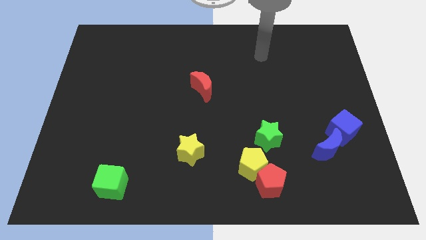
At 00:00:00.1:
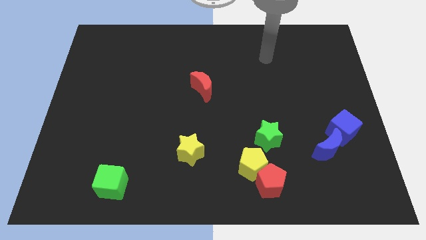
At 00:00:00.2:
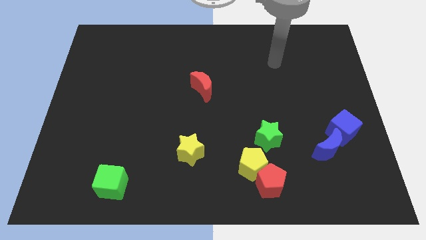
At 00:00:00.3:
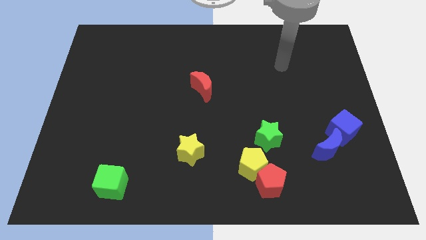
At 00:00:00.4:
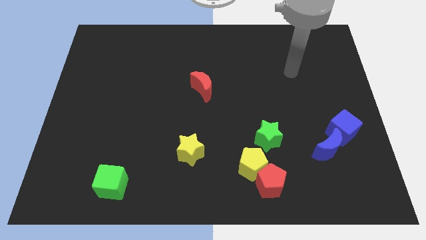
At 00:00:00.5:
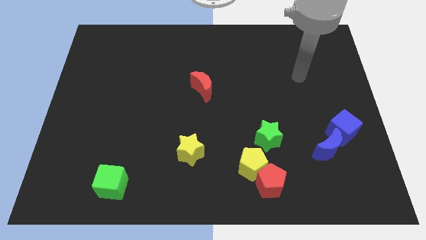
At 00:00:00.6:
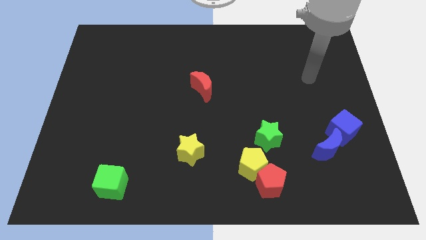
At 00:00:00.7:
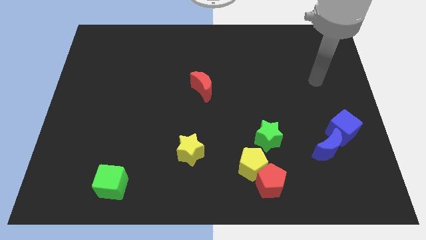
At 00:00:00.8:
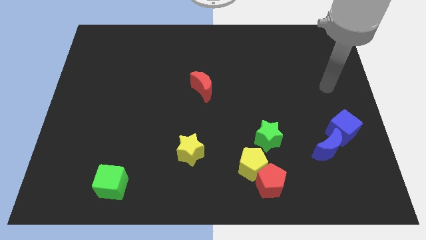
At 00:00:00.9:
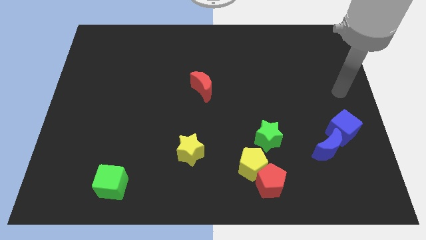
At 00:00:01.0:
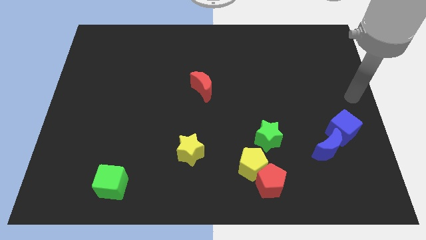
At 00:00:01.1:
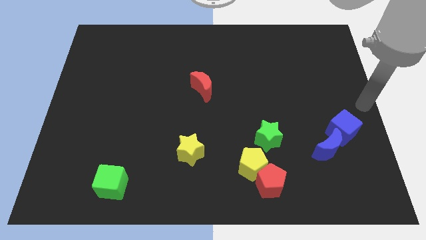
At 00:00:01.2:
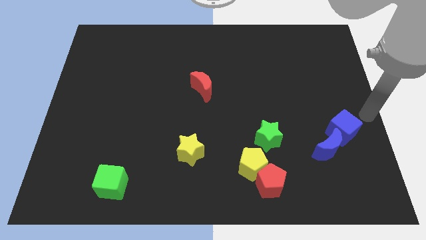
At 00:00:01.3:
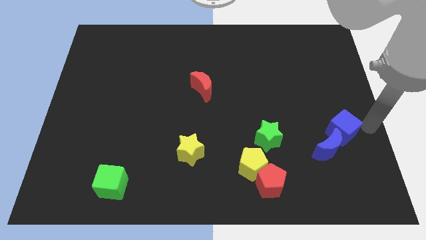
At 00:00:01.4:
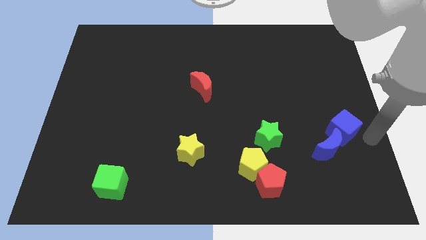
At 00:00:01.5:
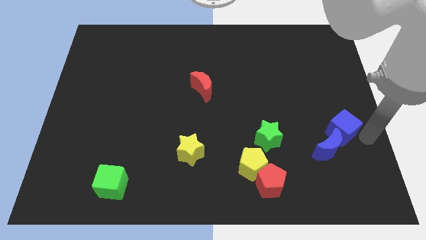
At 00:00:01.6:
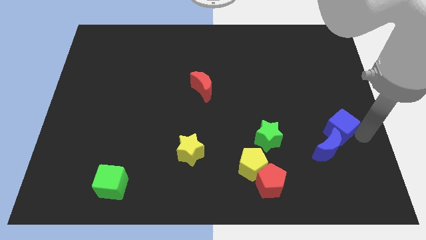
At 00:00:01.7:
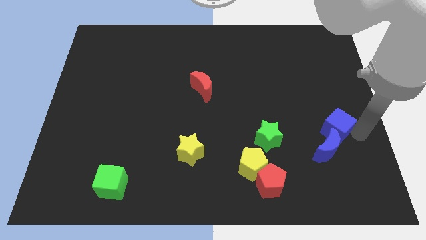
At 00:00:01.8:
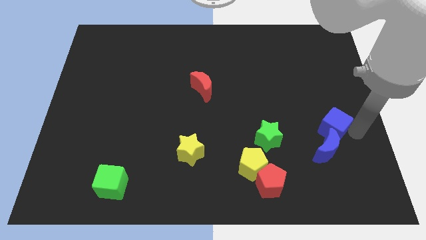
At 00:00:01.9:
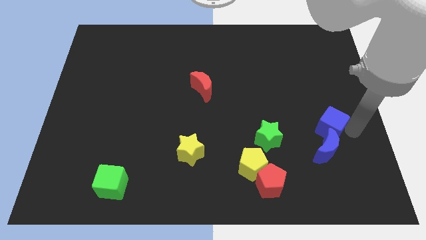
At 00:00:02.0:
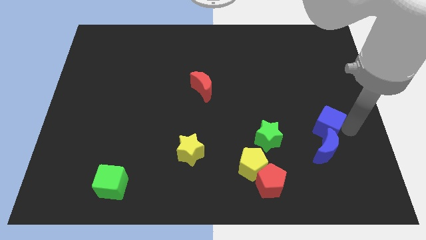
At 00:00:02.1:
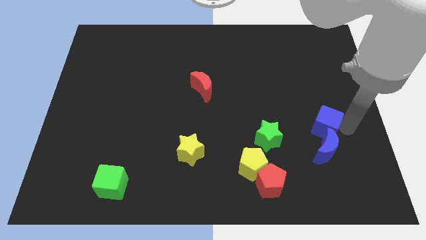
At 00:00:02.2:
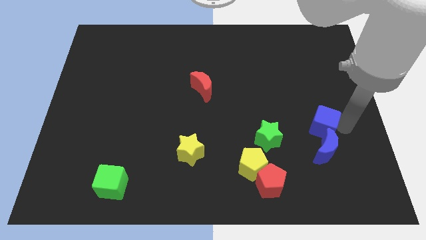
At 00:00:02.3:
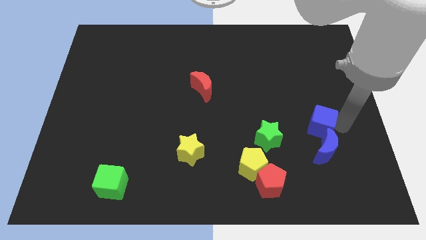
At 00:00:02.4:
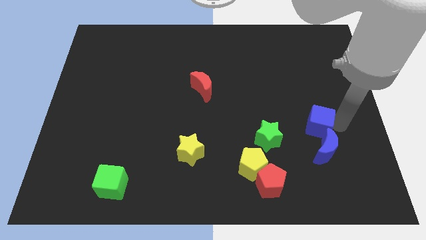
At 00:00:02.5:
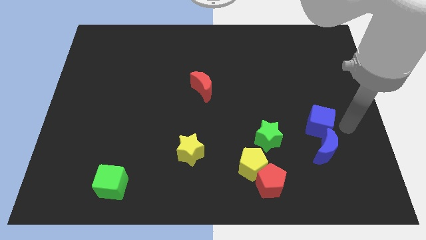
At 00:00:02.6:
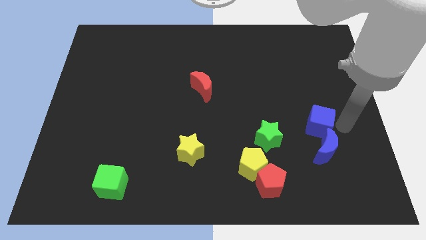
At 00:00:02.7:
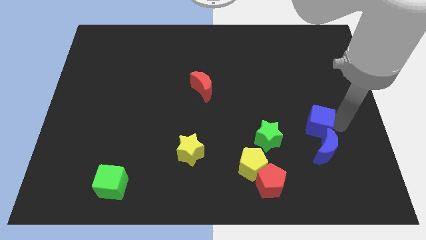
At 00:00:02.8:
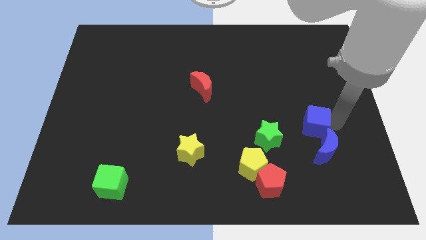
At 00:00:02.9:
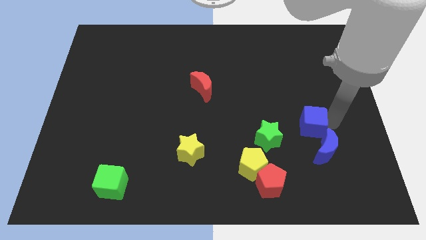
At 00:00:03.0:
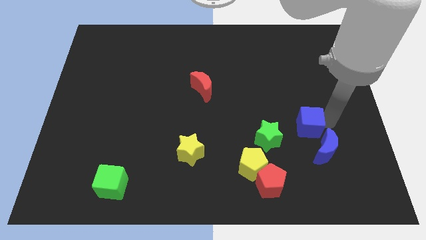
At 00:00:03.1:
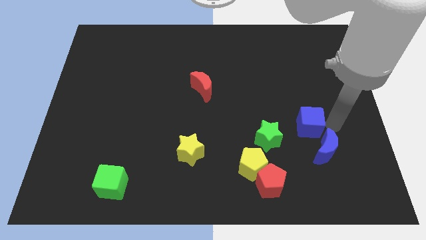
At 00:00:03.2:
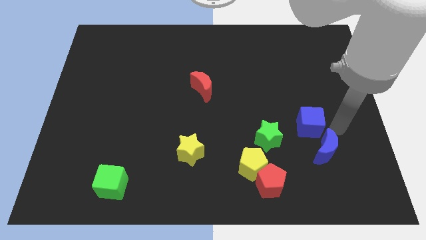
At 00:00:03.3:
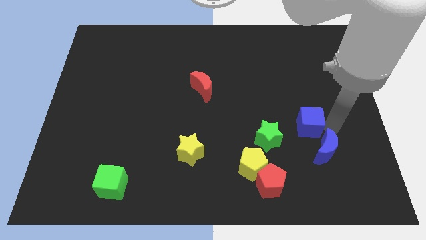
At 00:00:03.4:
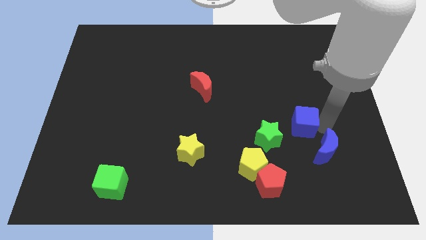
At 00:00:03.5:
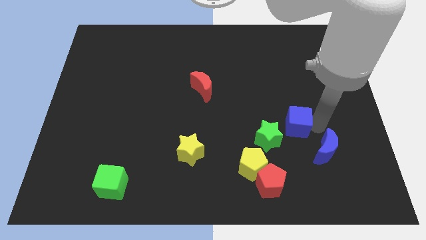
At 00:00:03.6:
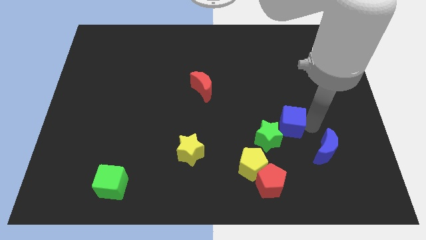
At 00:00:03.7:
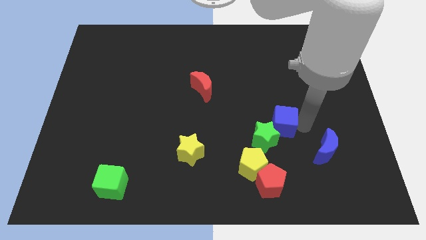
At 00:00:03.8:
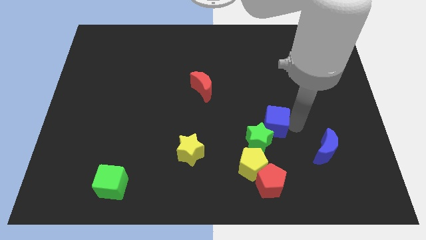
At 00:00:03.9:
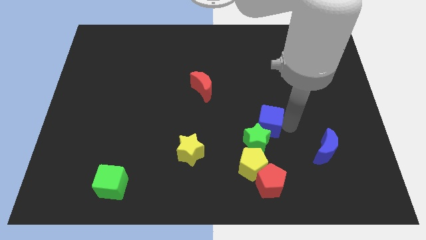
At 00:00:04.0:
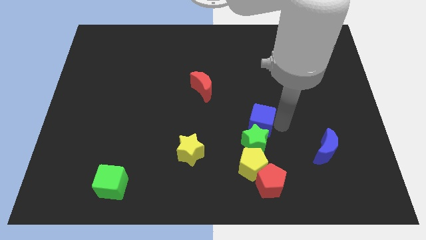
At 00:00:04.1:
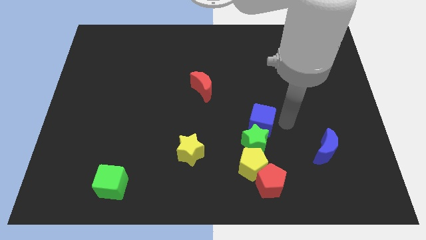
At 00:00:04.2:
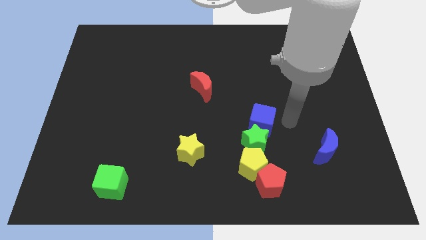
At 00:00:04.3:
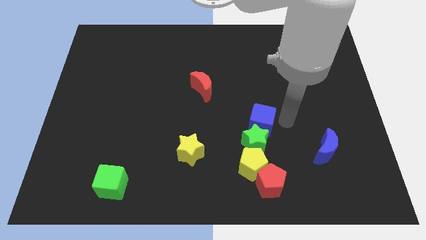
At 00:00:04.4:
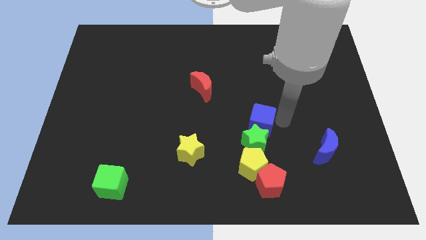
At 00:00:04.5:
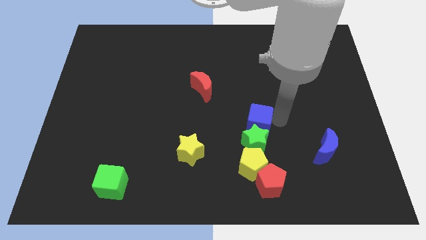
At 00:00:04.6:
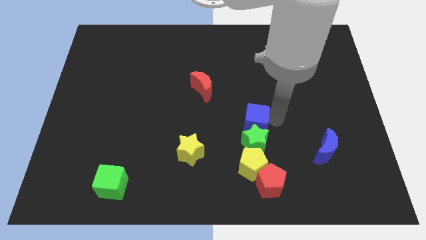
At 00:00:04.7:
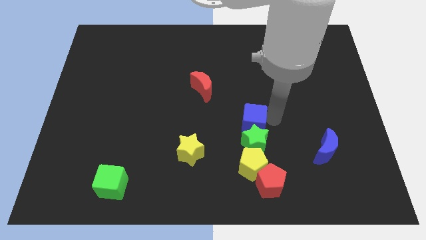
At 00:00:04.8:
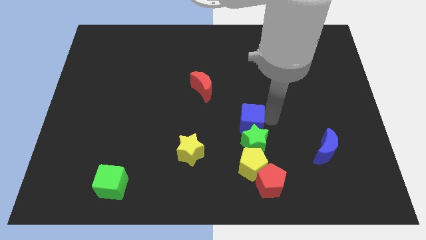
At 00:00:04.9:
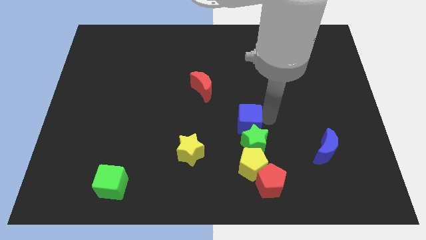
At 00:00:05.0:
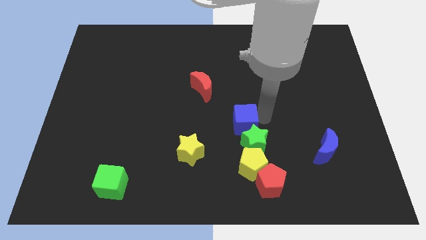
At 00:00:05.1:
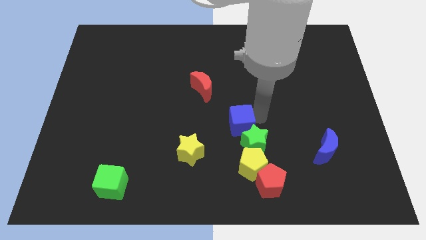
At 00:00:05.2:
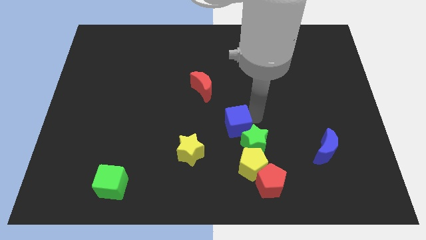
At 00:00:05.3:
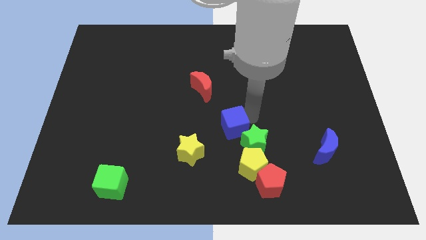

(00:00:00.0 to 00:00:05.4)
move the blue cube just left of the green star

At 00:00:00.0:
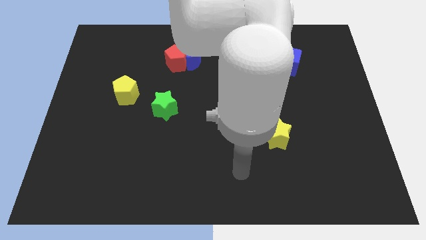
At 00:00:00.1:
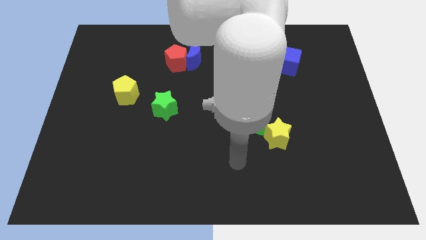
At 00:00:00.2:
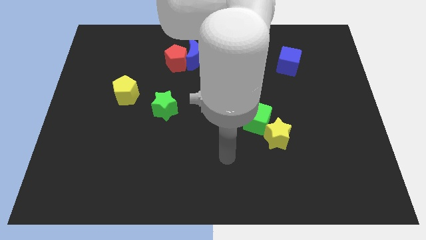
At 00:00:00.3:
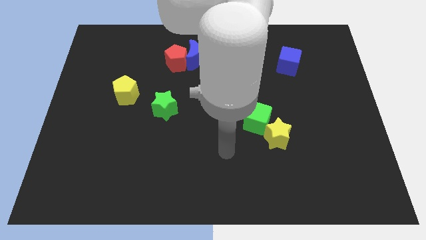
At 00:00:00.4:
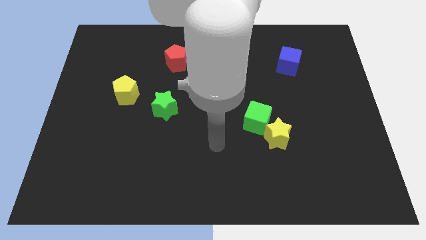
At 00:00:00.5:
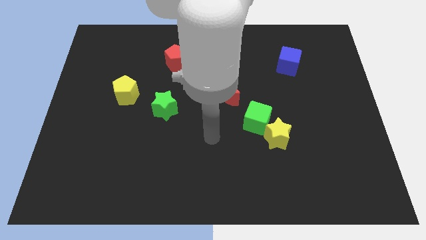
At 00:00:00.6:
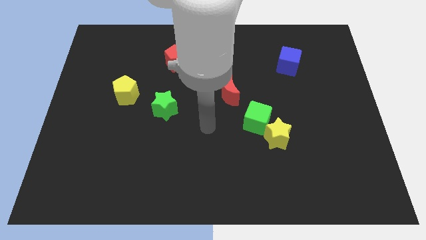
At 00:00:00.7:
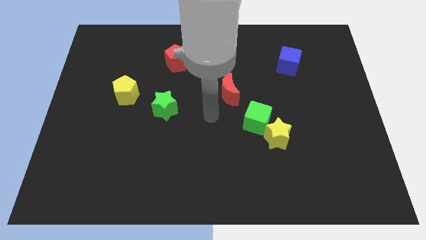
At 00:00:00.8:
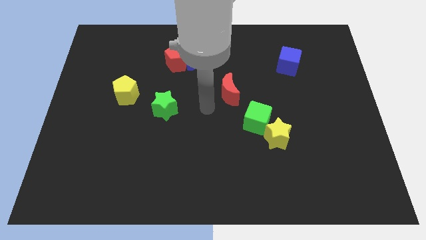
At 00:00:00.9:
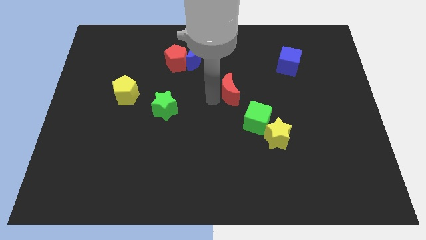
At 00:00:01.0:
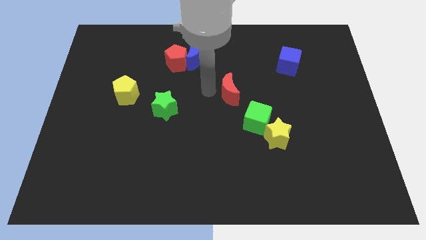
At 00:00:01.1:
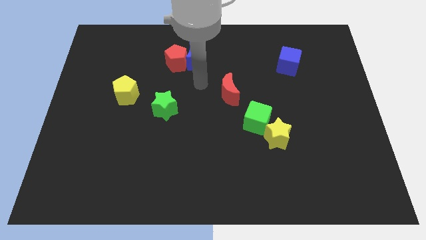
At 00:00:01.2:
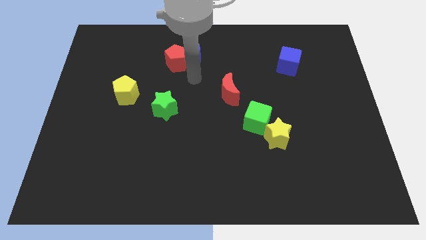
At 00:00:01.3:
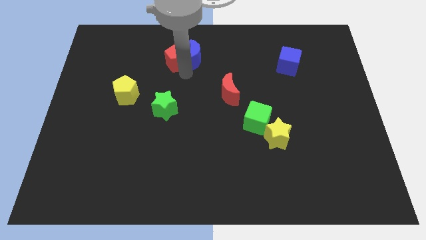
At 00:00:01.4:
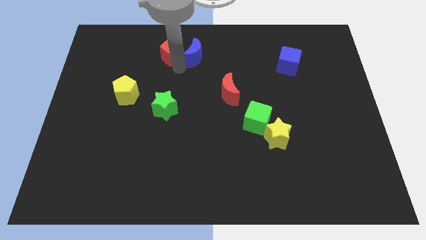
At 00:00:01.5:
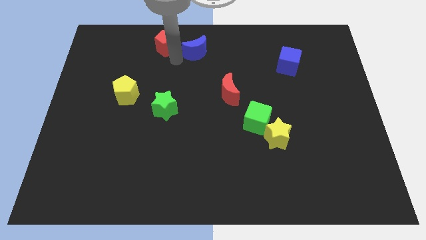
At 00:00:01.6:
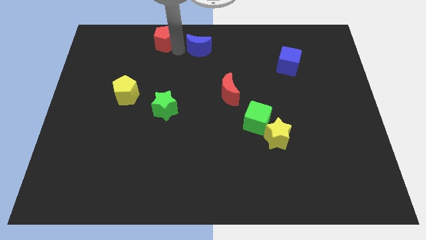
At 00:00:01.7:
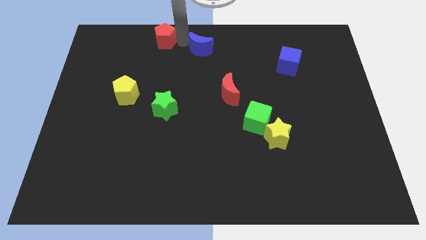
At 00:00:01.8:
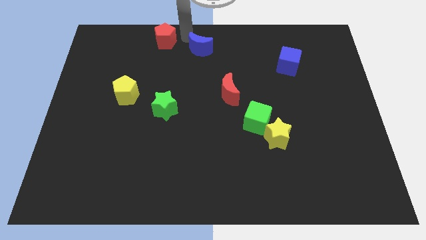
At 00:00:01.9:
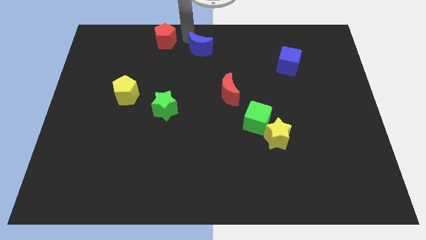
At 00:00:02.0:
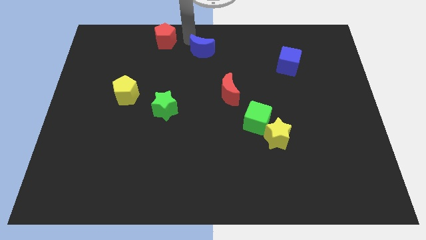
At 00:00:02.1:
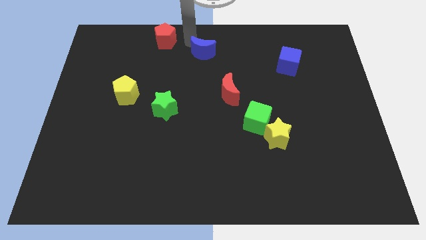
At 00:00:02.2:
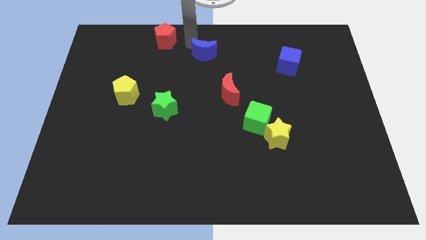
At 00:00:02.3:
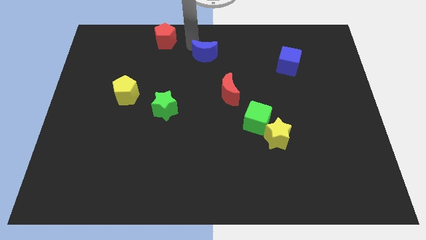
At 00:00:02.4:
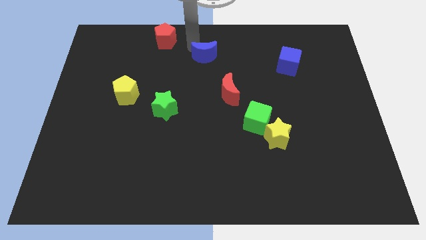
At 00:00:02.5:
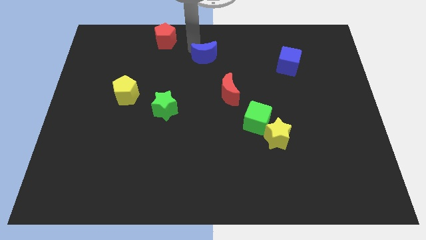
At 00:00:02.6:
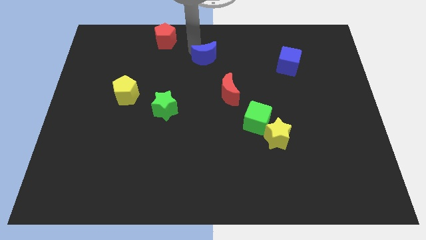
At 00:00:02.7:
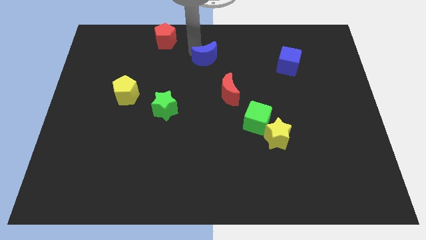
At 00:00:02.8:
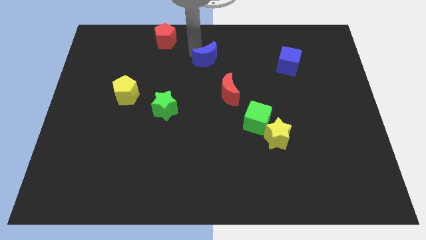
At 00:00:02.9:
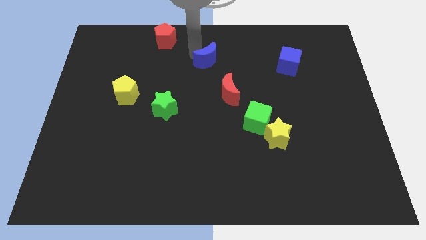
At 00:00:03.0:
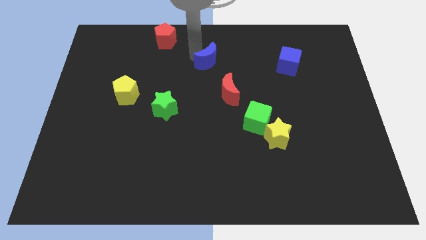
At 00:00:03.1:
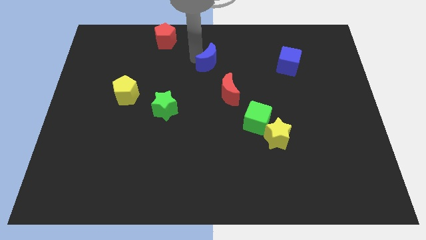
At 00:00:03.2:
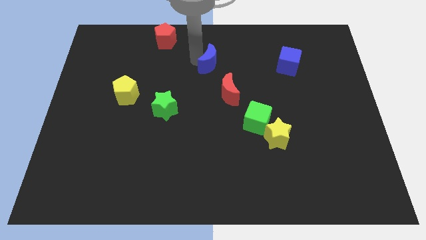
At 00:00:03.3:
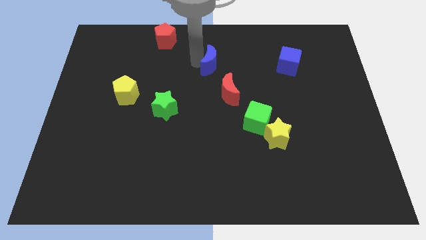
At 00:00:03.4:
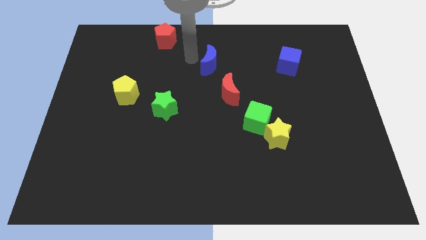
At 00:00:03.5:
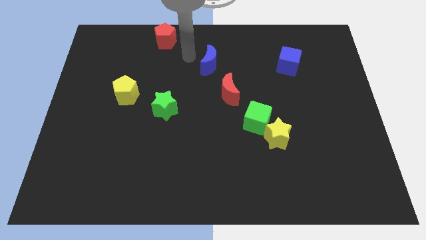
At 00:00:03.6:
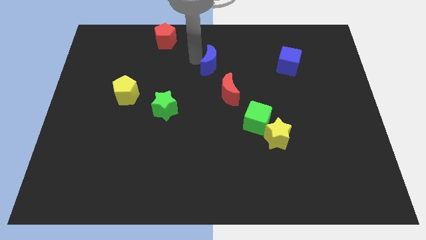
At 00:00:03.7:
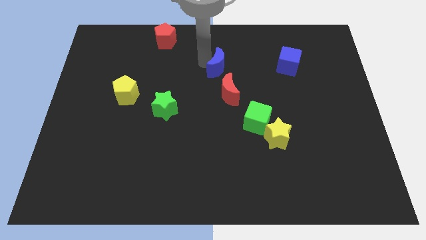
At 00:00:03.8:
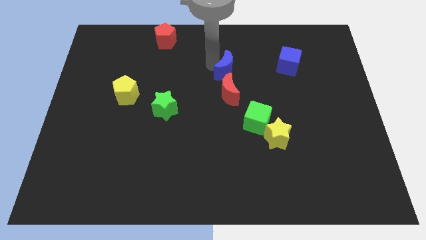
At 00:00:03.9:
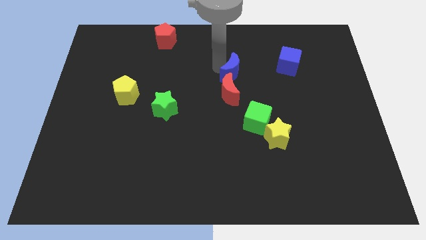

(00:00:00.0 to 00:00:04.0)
slide the blue moon to the top right of the red moon
